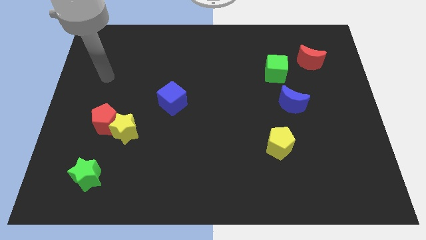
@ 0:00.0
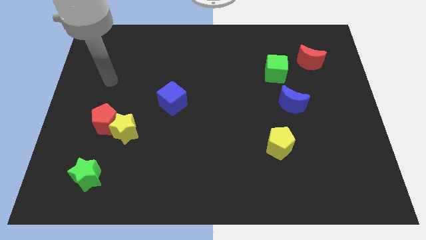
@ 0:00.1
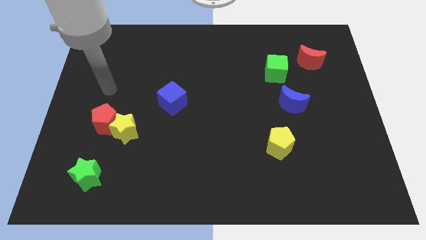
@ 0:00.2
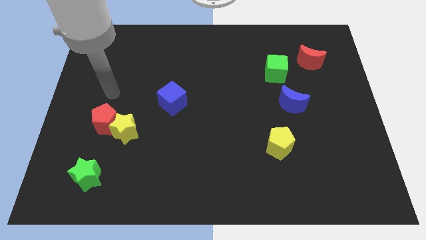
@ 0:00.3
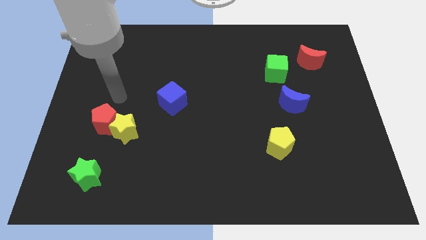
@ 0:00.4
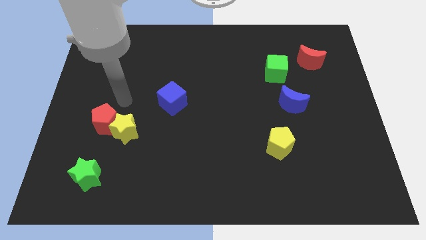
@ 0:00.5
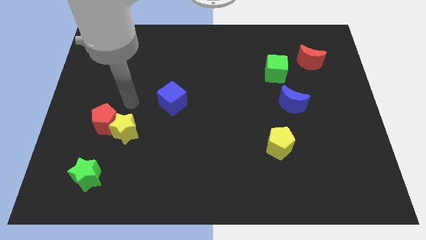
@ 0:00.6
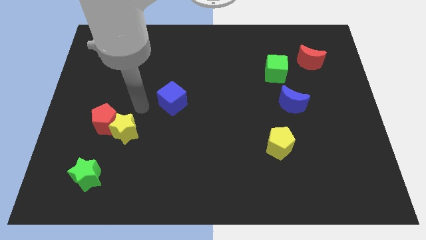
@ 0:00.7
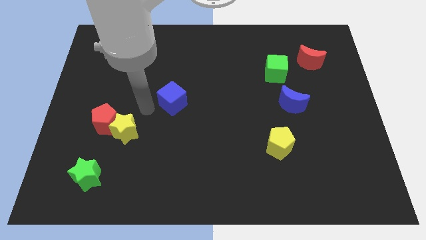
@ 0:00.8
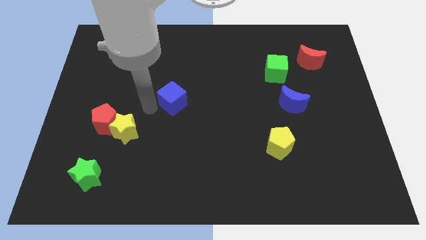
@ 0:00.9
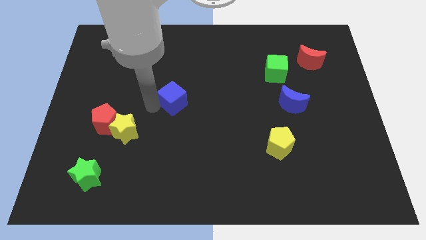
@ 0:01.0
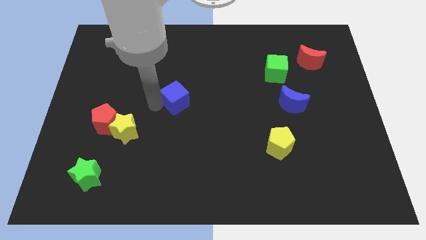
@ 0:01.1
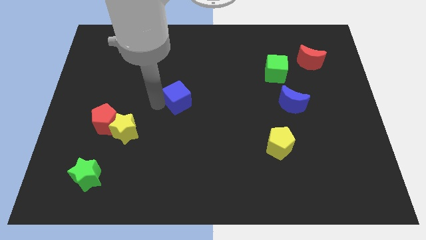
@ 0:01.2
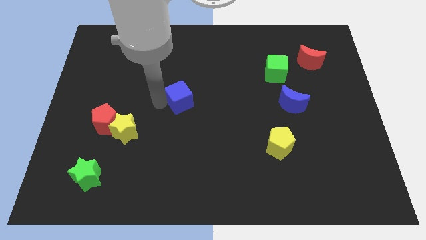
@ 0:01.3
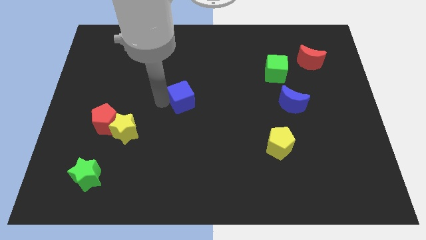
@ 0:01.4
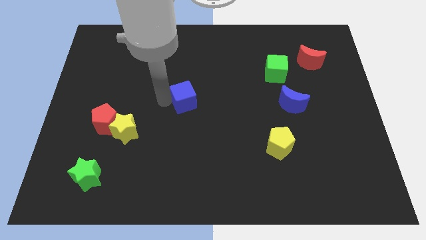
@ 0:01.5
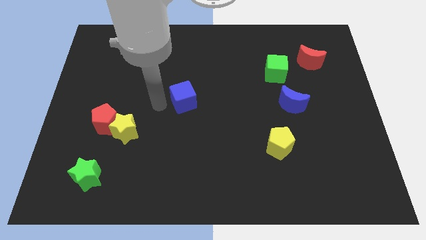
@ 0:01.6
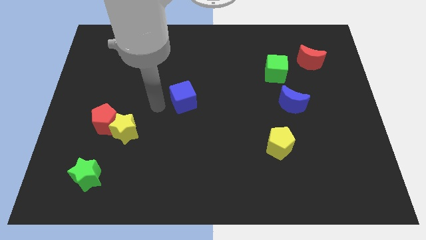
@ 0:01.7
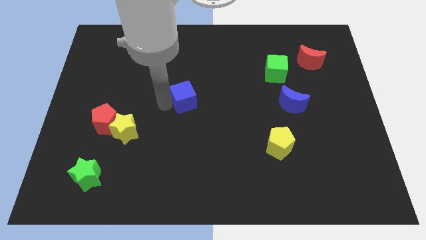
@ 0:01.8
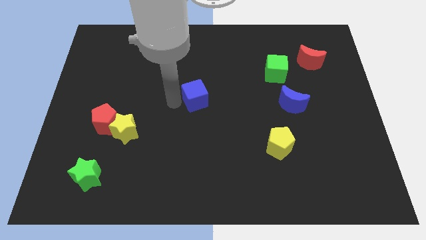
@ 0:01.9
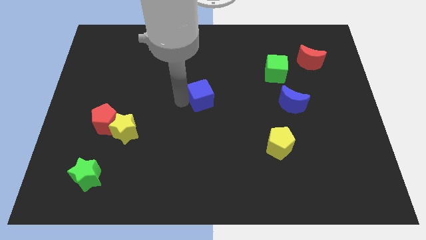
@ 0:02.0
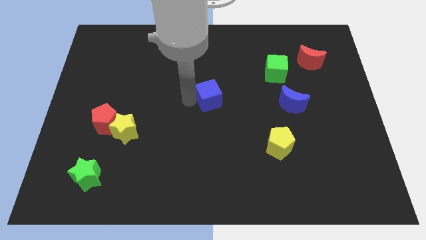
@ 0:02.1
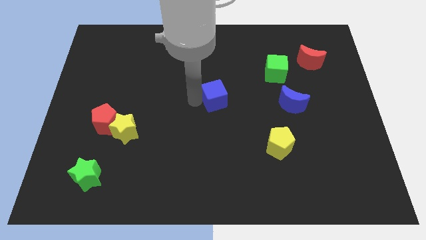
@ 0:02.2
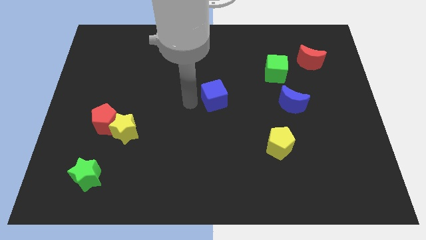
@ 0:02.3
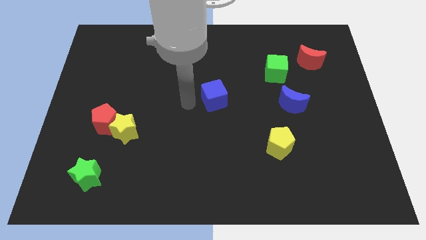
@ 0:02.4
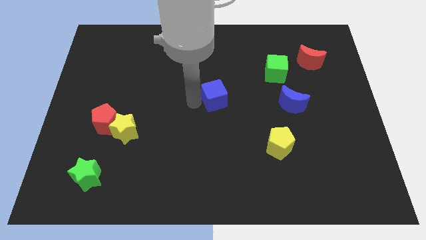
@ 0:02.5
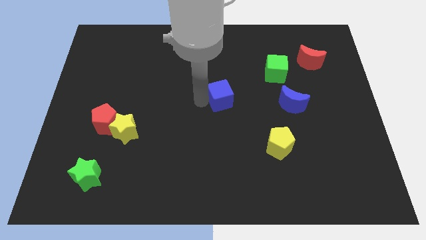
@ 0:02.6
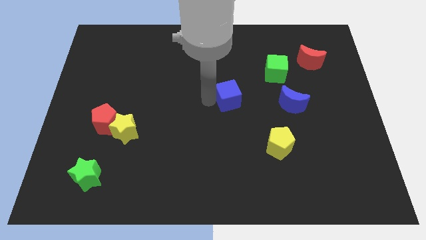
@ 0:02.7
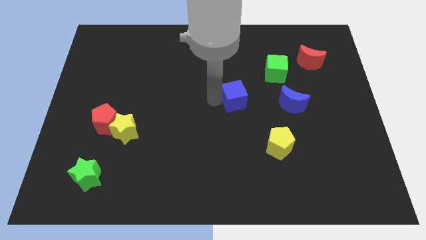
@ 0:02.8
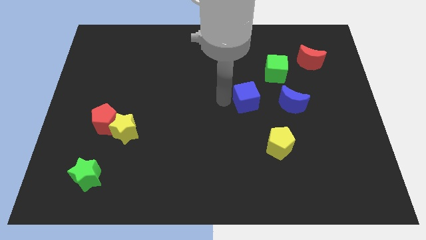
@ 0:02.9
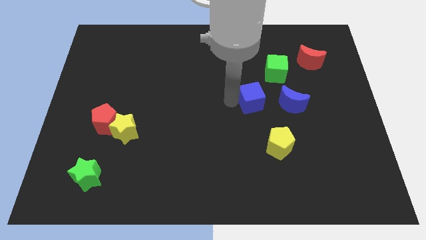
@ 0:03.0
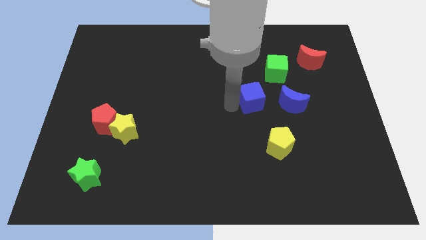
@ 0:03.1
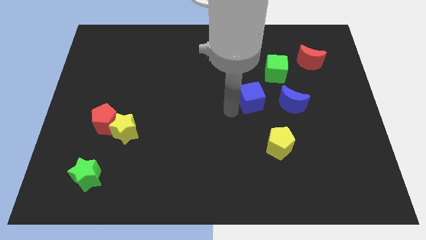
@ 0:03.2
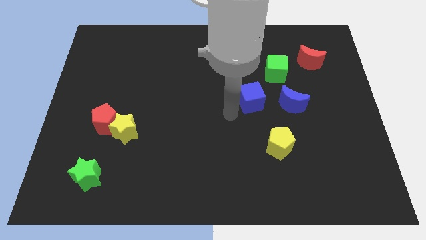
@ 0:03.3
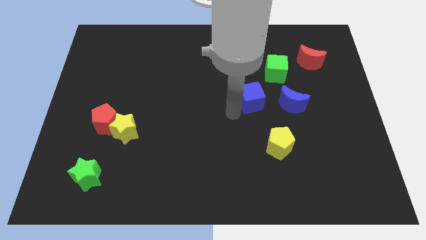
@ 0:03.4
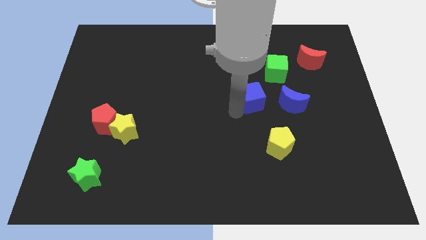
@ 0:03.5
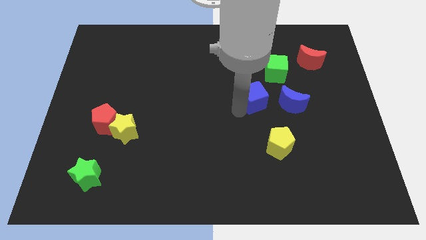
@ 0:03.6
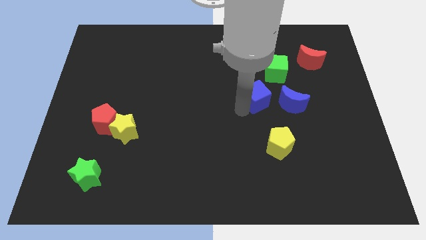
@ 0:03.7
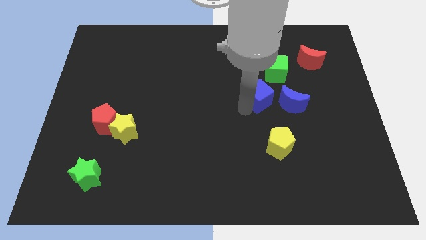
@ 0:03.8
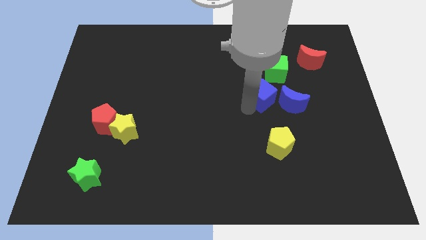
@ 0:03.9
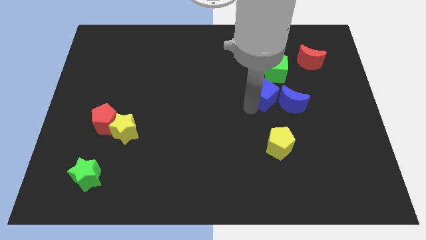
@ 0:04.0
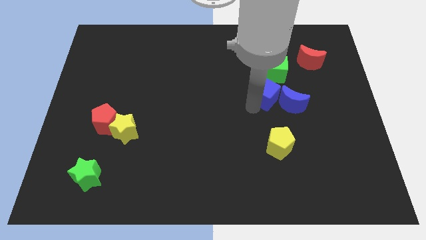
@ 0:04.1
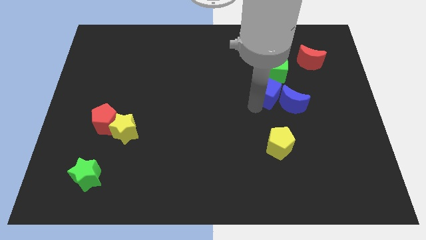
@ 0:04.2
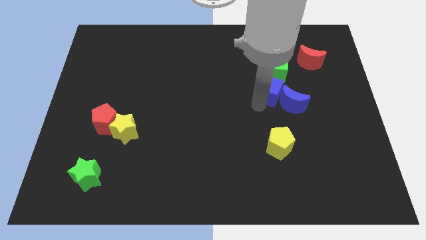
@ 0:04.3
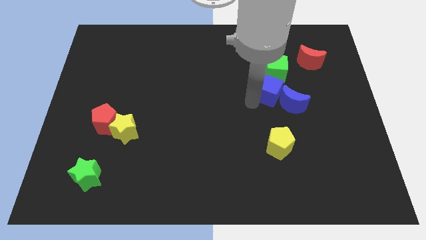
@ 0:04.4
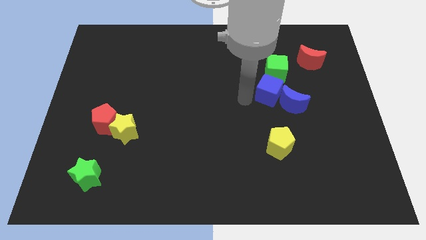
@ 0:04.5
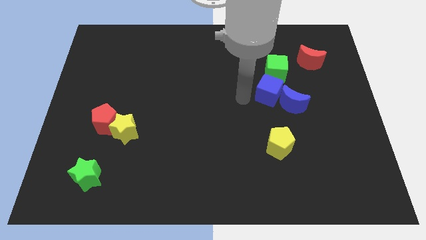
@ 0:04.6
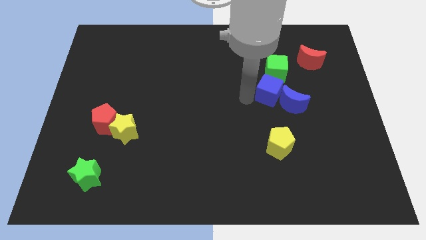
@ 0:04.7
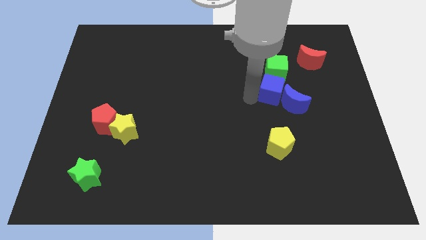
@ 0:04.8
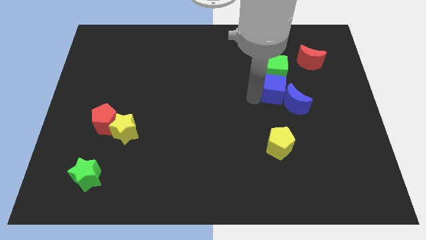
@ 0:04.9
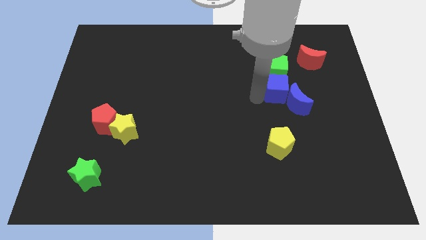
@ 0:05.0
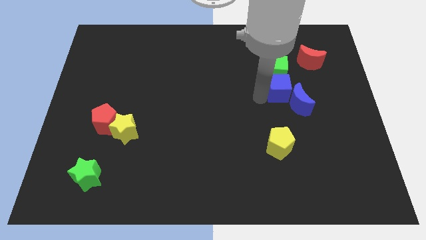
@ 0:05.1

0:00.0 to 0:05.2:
slide the blue cube diagonally down and to the right of the green cube

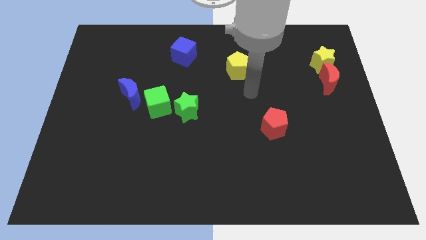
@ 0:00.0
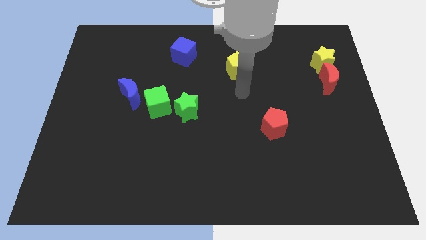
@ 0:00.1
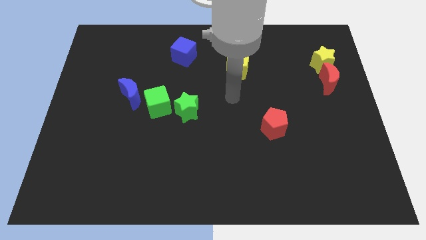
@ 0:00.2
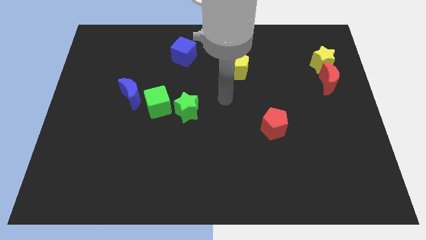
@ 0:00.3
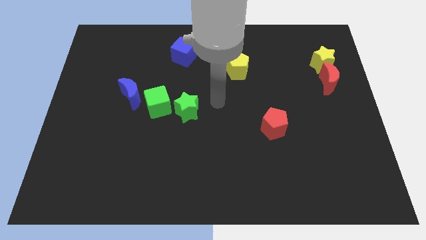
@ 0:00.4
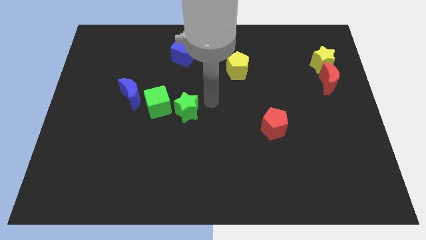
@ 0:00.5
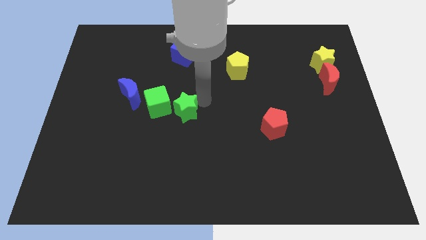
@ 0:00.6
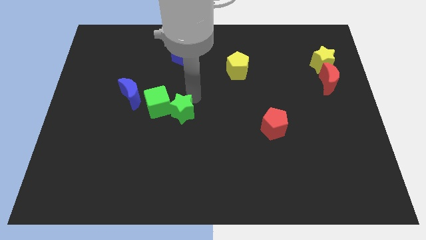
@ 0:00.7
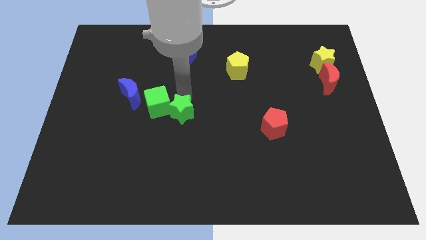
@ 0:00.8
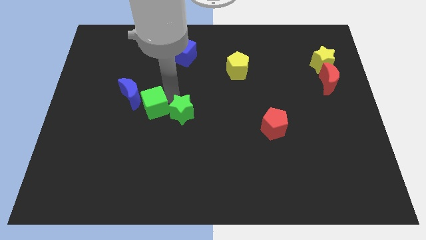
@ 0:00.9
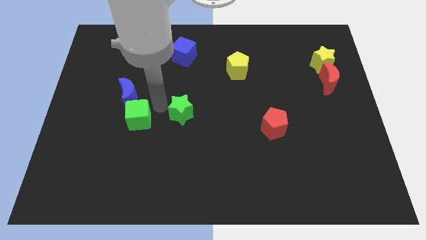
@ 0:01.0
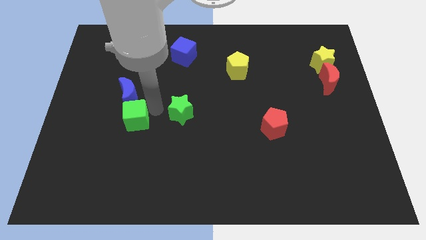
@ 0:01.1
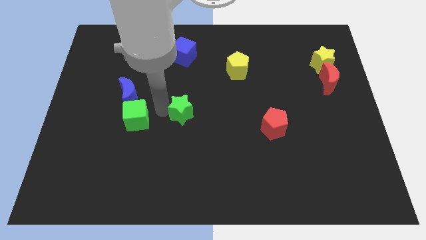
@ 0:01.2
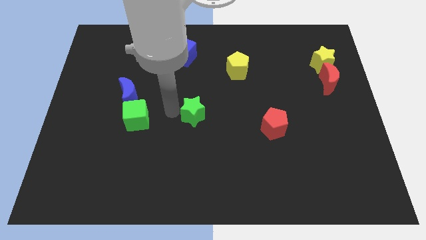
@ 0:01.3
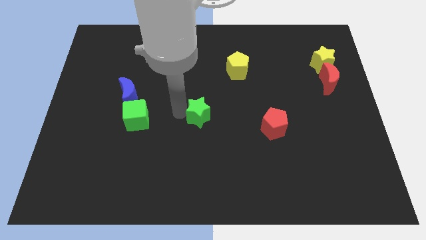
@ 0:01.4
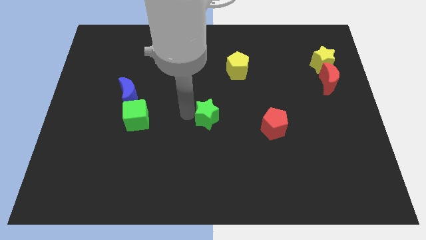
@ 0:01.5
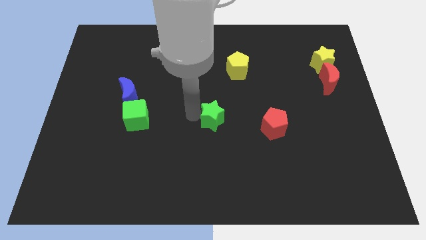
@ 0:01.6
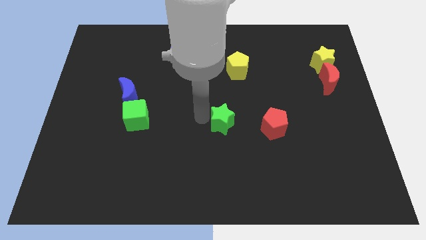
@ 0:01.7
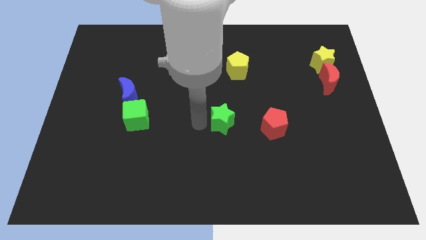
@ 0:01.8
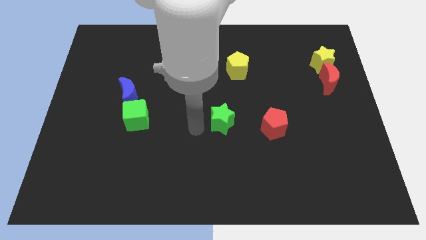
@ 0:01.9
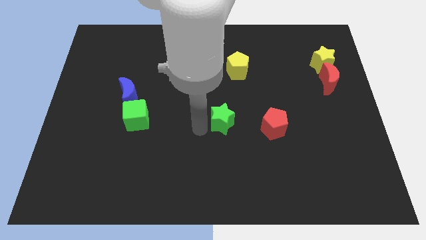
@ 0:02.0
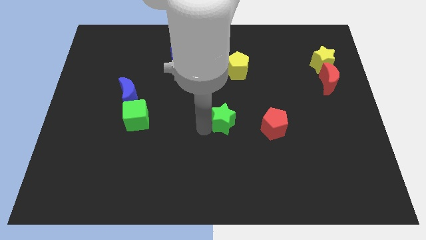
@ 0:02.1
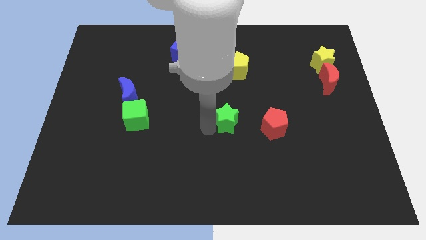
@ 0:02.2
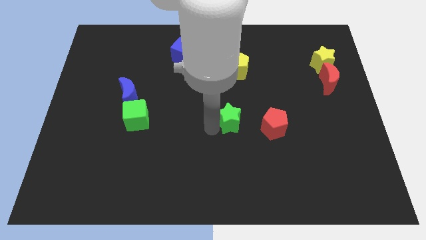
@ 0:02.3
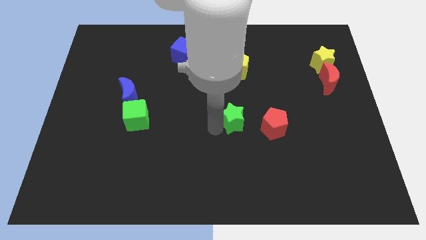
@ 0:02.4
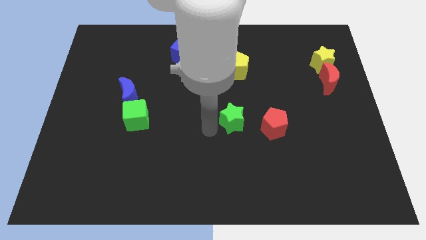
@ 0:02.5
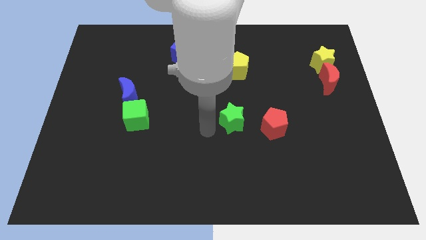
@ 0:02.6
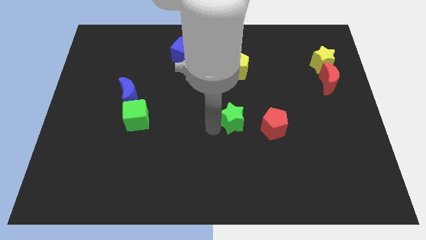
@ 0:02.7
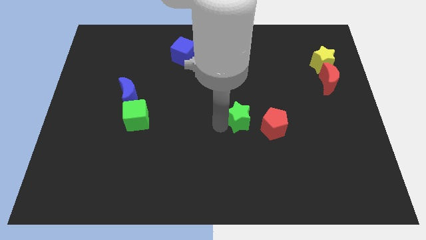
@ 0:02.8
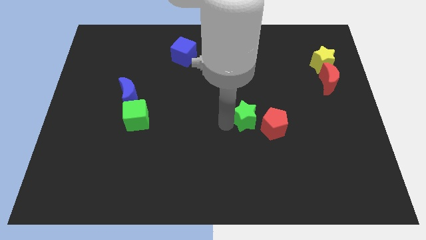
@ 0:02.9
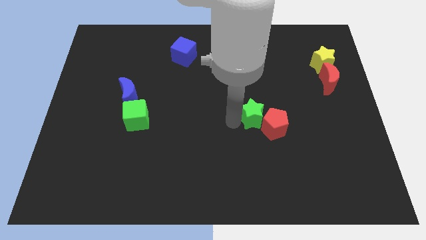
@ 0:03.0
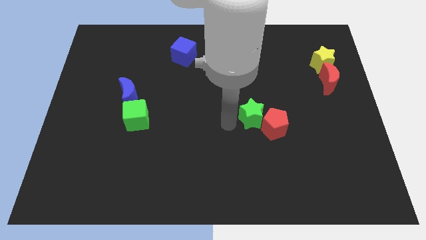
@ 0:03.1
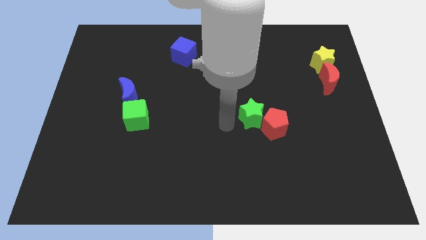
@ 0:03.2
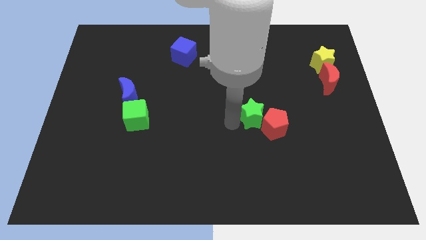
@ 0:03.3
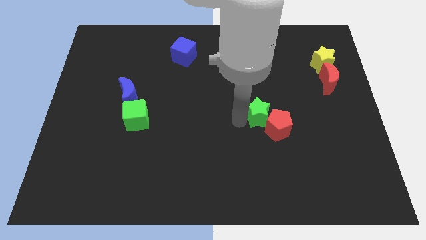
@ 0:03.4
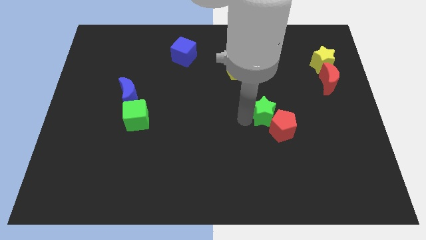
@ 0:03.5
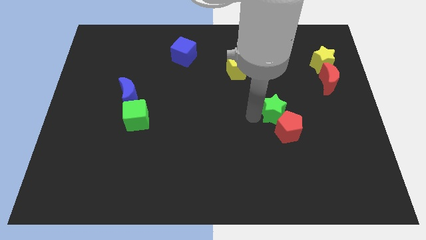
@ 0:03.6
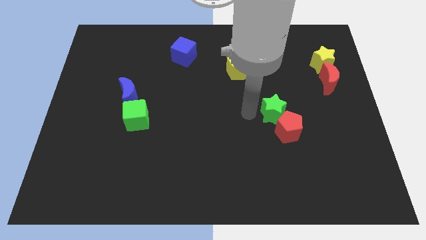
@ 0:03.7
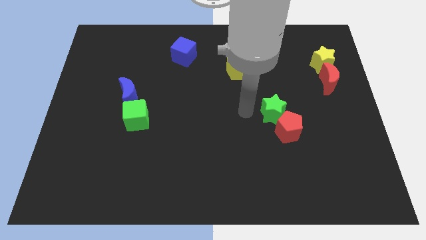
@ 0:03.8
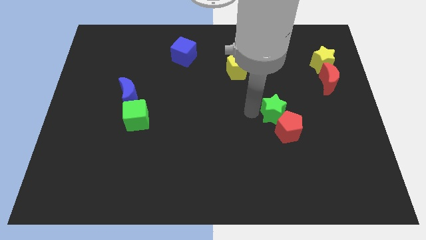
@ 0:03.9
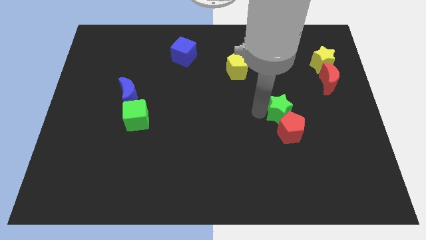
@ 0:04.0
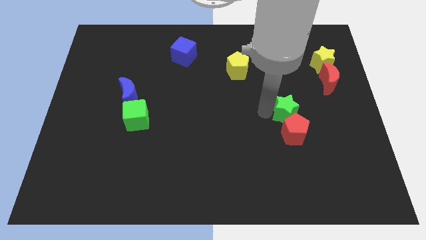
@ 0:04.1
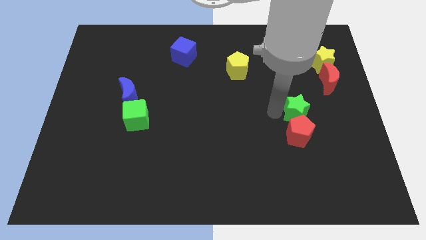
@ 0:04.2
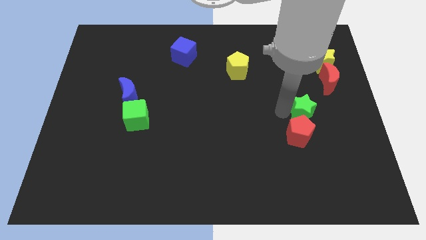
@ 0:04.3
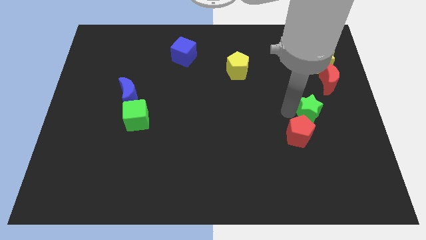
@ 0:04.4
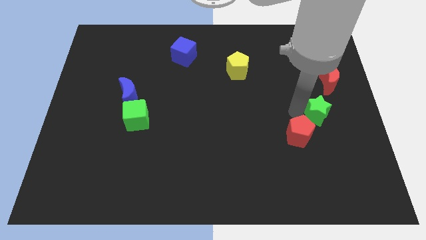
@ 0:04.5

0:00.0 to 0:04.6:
push the green star below the red moon
